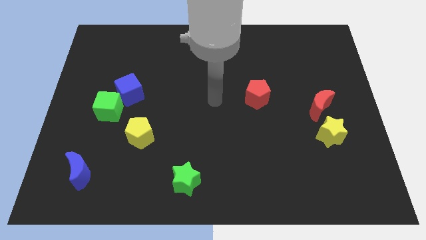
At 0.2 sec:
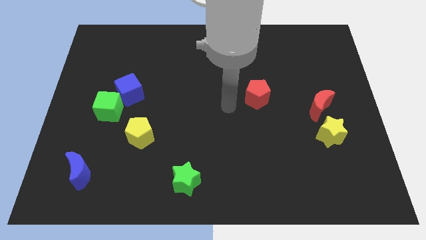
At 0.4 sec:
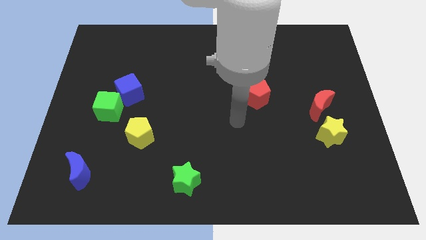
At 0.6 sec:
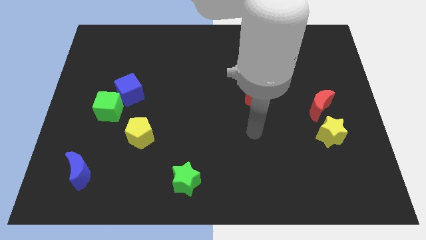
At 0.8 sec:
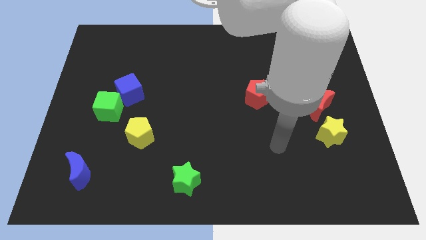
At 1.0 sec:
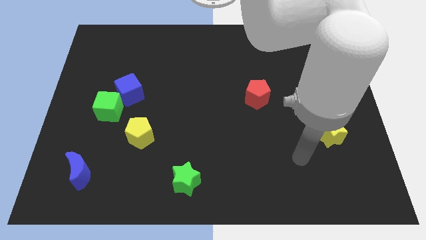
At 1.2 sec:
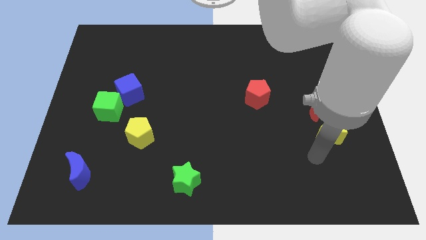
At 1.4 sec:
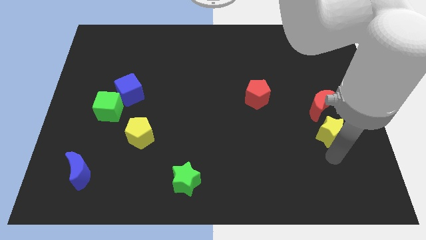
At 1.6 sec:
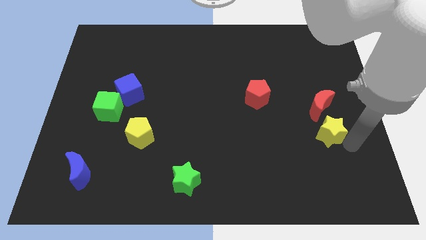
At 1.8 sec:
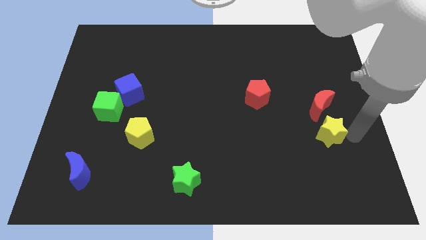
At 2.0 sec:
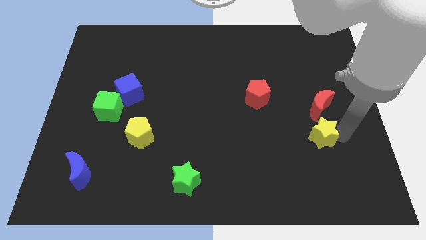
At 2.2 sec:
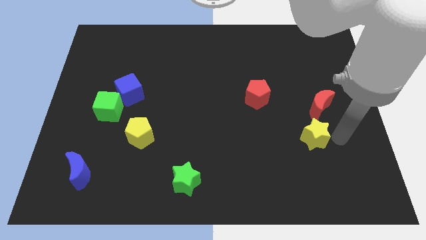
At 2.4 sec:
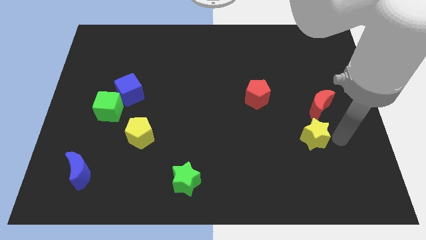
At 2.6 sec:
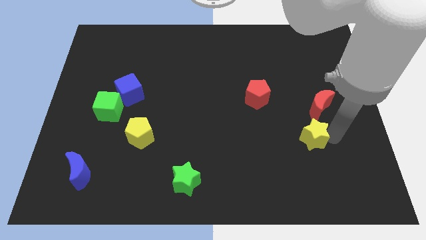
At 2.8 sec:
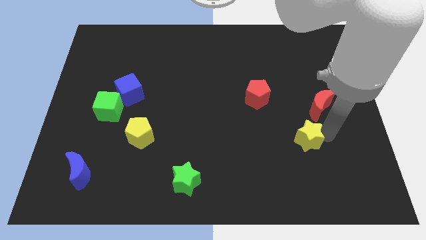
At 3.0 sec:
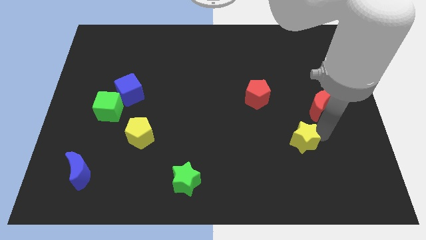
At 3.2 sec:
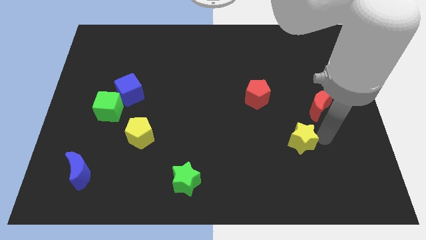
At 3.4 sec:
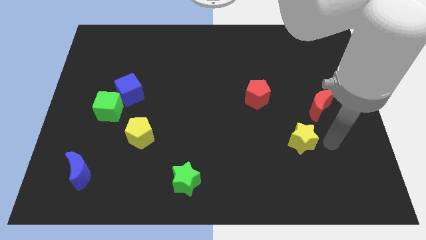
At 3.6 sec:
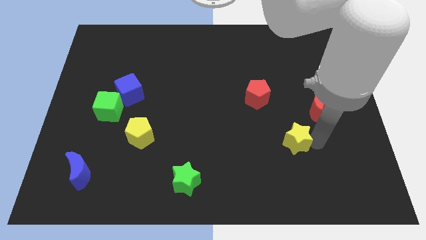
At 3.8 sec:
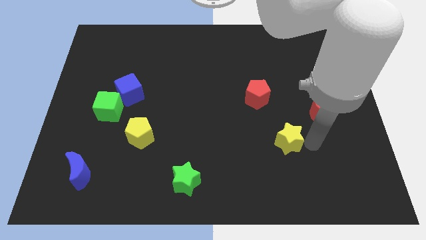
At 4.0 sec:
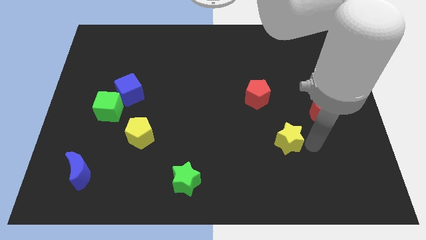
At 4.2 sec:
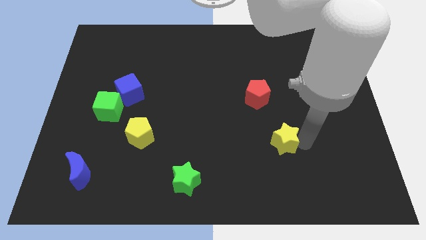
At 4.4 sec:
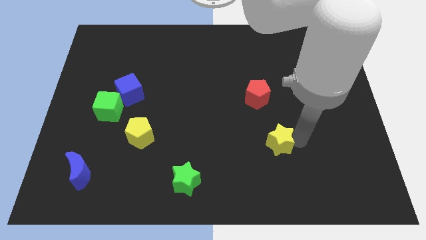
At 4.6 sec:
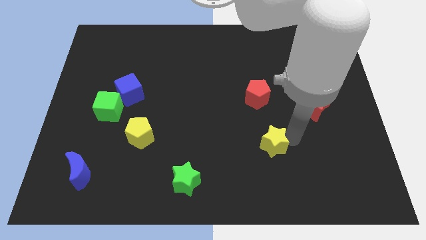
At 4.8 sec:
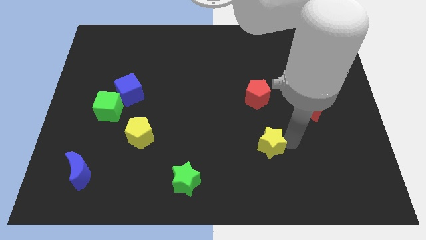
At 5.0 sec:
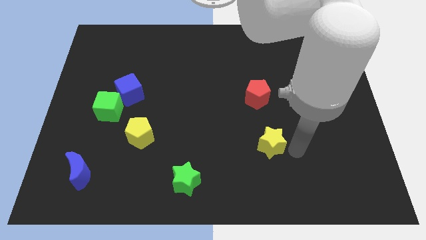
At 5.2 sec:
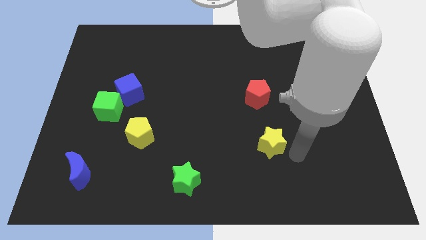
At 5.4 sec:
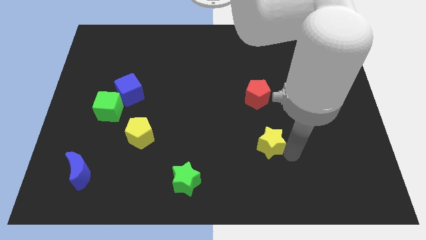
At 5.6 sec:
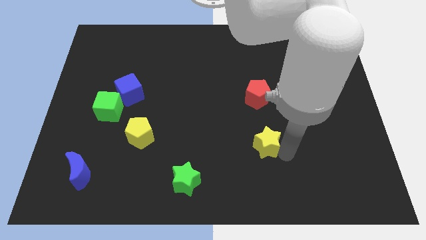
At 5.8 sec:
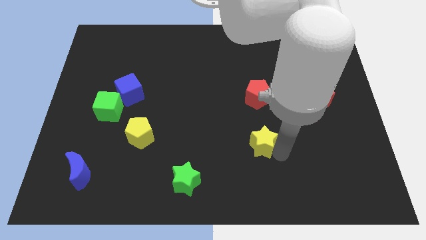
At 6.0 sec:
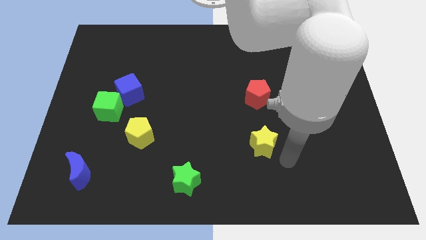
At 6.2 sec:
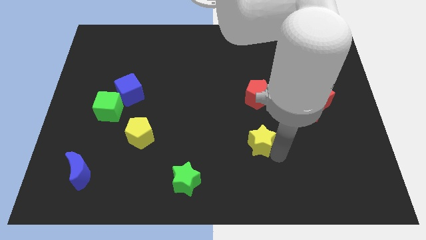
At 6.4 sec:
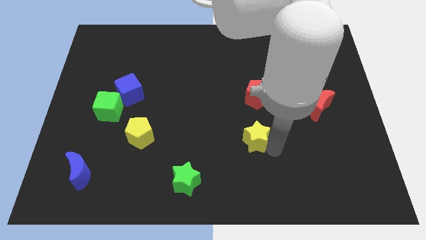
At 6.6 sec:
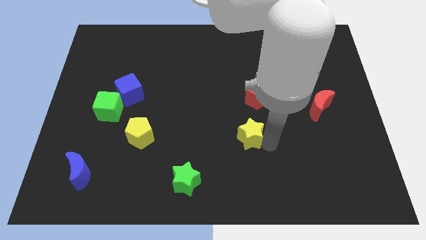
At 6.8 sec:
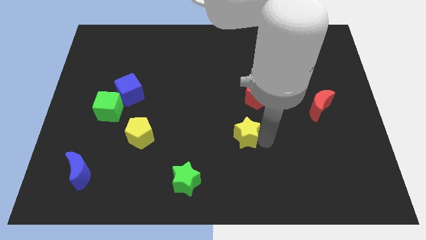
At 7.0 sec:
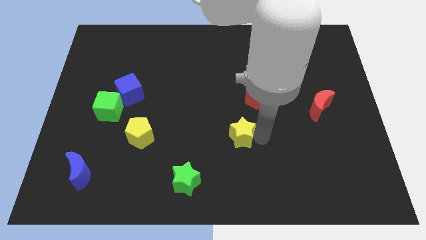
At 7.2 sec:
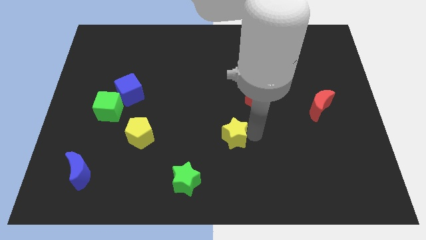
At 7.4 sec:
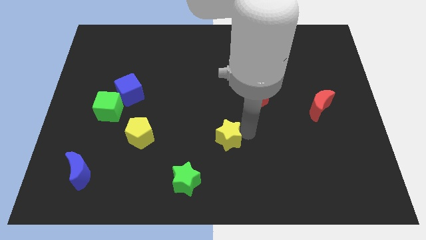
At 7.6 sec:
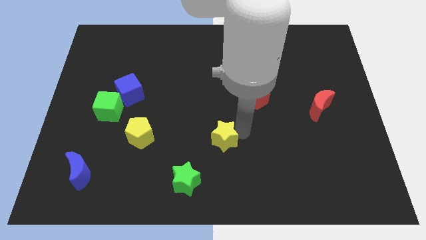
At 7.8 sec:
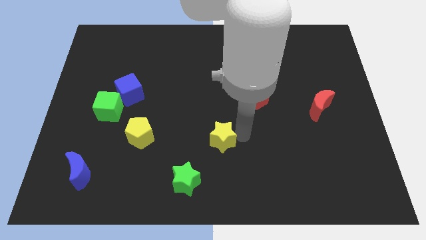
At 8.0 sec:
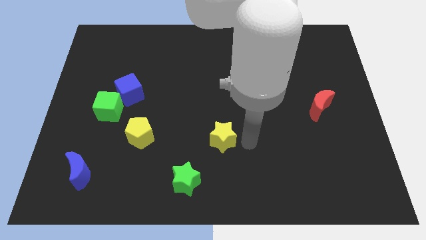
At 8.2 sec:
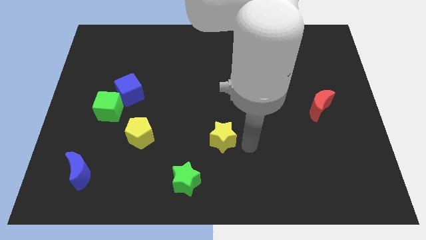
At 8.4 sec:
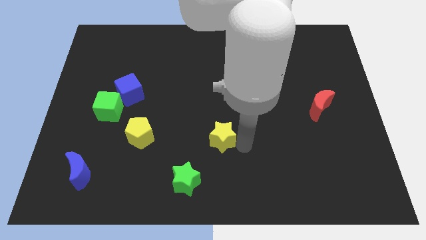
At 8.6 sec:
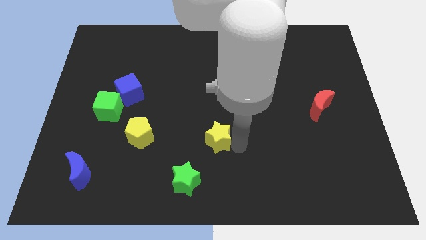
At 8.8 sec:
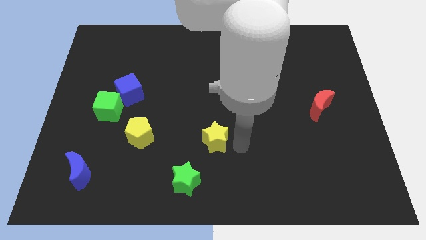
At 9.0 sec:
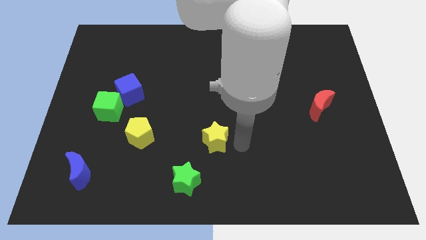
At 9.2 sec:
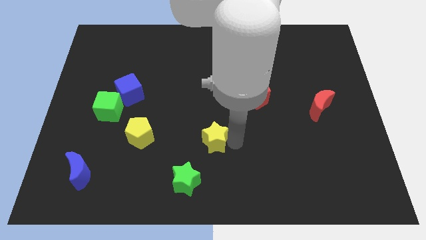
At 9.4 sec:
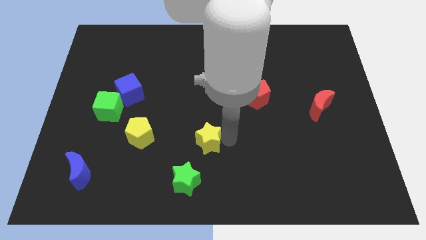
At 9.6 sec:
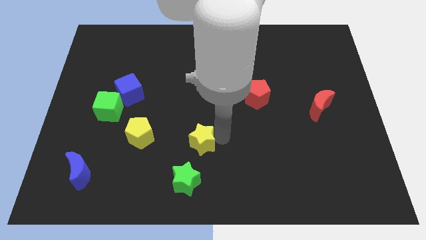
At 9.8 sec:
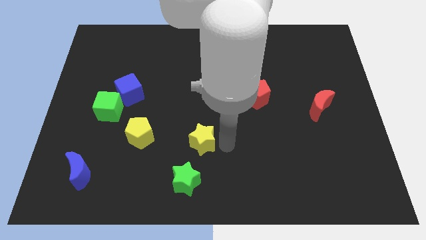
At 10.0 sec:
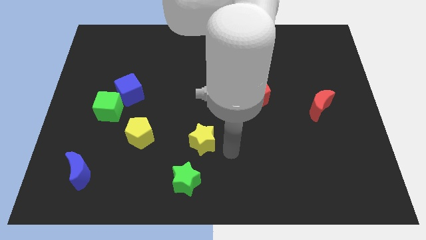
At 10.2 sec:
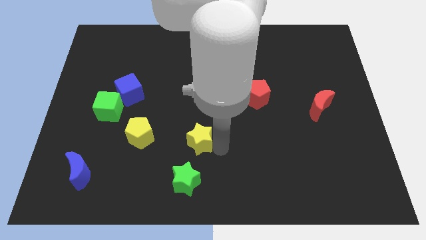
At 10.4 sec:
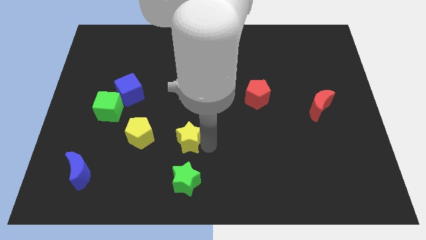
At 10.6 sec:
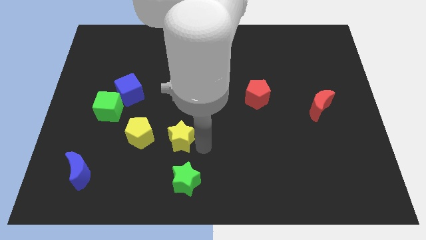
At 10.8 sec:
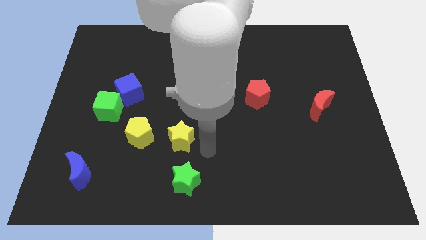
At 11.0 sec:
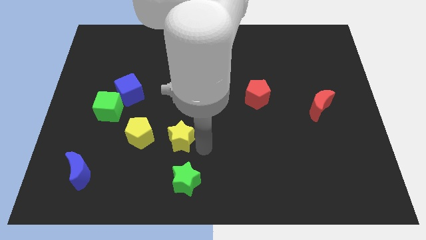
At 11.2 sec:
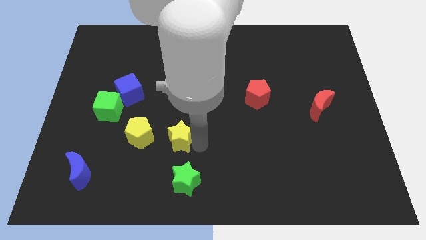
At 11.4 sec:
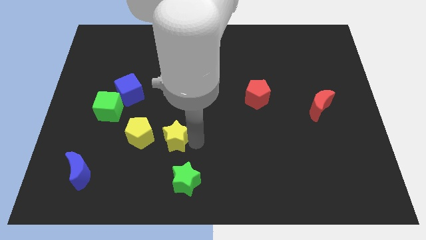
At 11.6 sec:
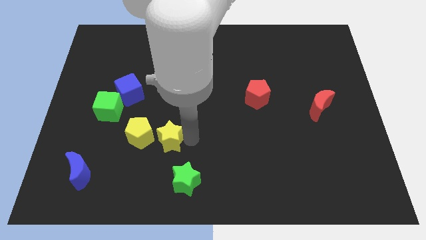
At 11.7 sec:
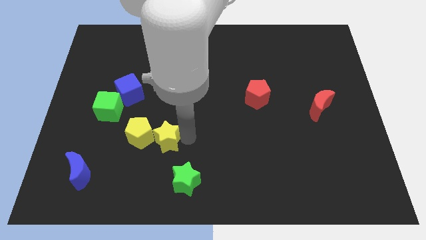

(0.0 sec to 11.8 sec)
push the yellow star towards the yellow pentagon

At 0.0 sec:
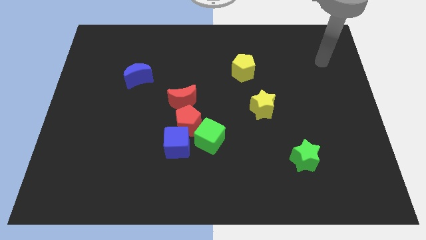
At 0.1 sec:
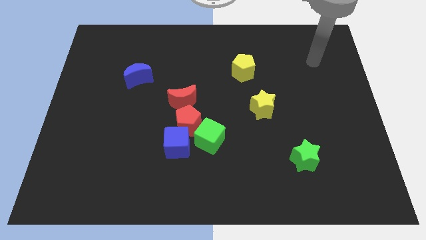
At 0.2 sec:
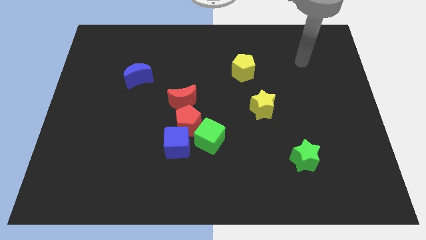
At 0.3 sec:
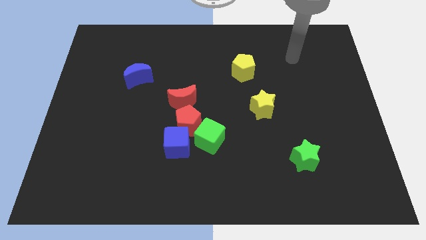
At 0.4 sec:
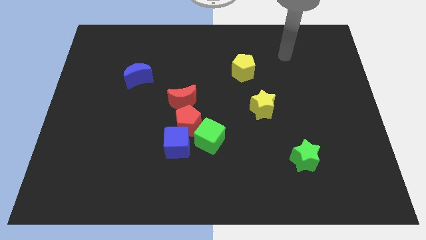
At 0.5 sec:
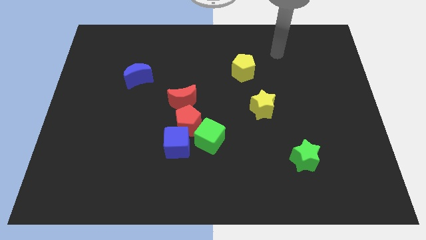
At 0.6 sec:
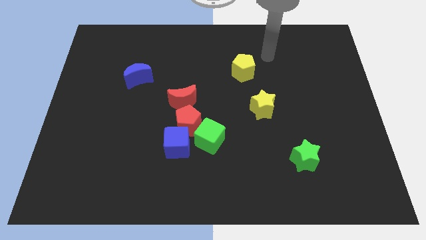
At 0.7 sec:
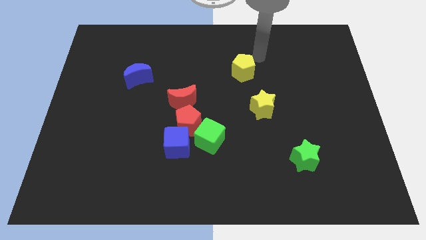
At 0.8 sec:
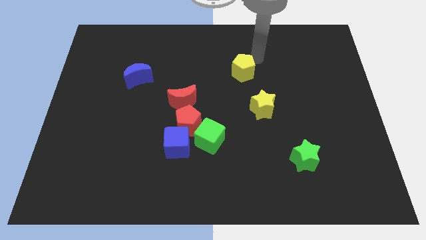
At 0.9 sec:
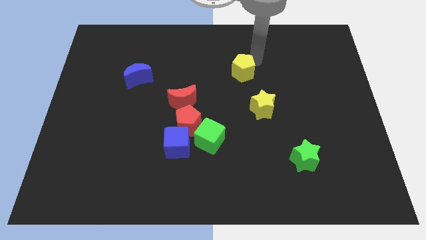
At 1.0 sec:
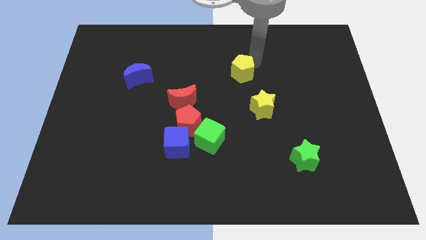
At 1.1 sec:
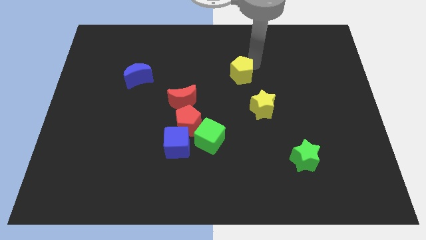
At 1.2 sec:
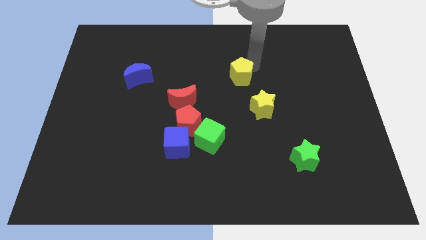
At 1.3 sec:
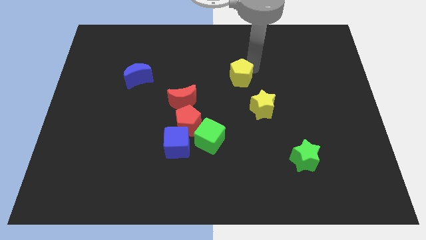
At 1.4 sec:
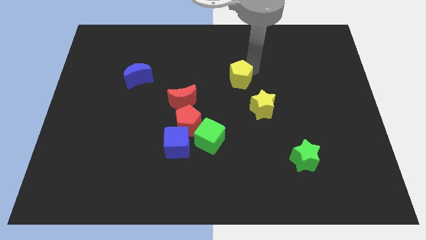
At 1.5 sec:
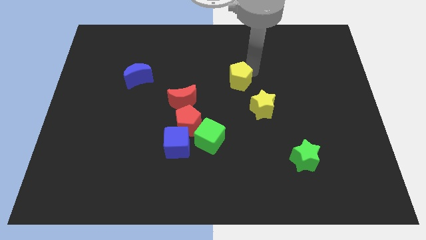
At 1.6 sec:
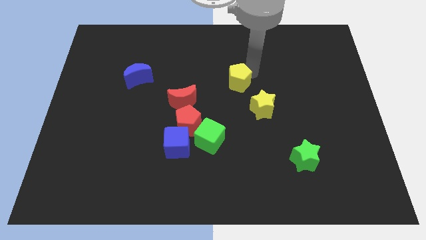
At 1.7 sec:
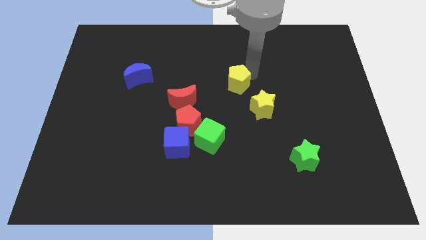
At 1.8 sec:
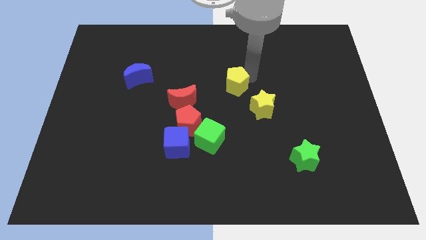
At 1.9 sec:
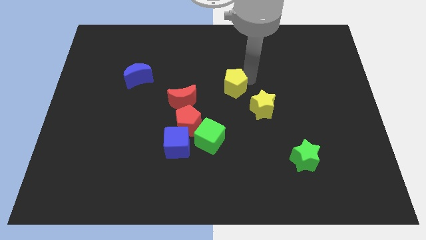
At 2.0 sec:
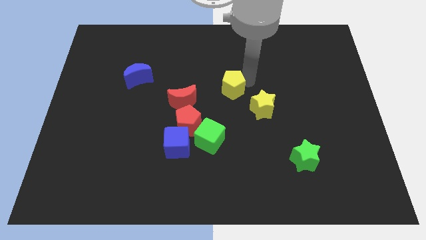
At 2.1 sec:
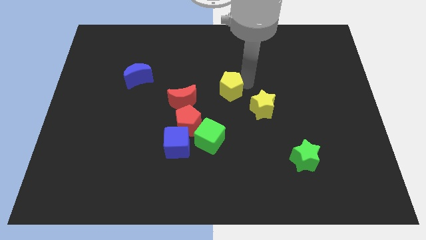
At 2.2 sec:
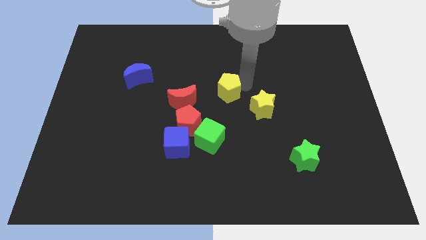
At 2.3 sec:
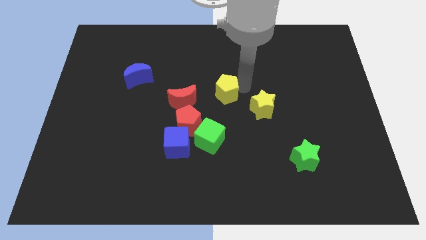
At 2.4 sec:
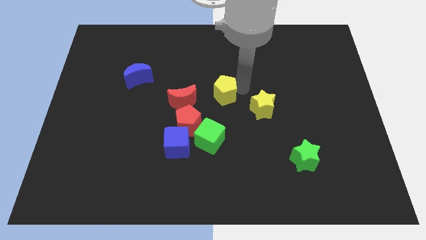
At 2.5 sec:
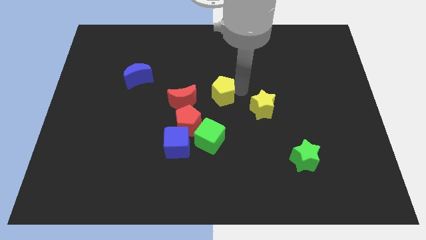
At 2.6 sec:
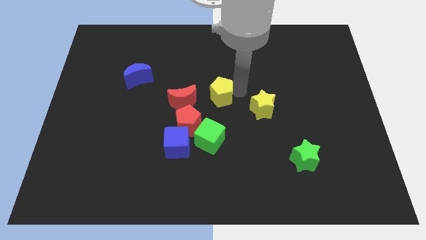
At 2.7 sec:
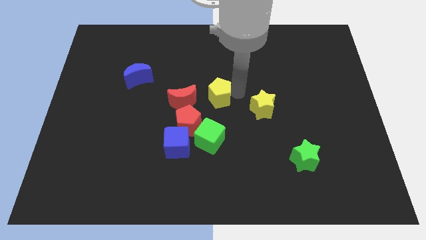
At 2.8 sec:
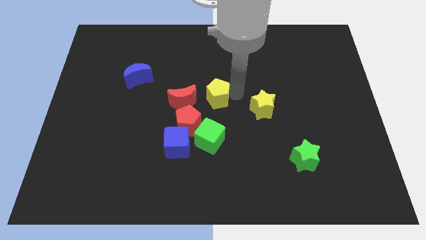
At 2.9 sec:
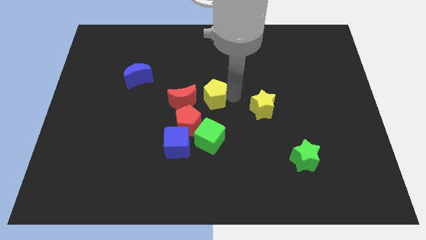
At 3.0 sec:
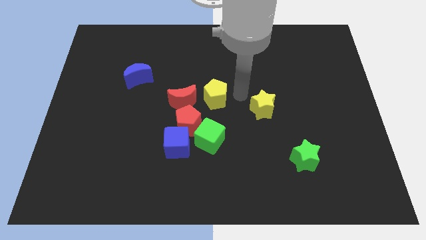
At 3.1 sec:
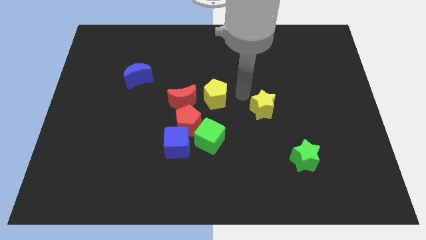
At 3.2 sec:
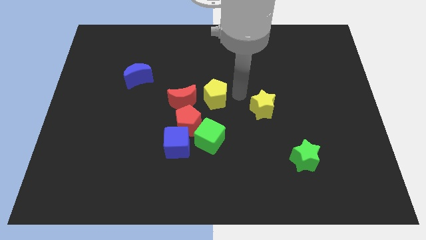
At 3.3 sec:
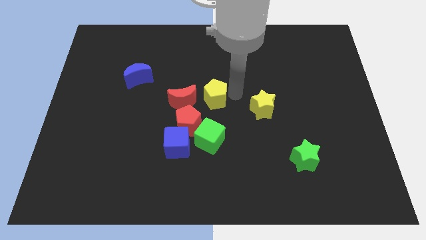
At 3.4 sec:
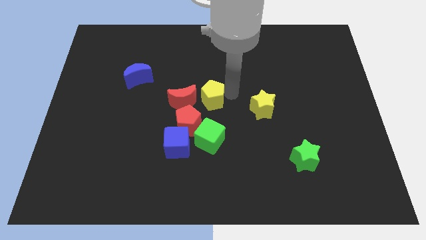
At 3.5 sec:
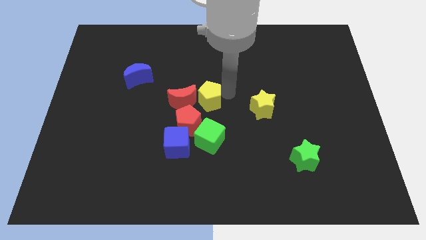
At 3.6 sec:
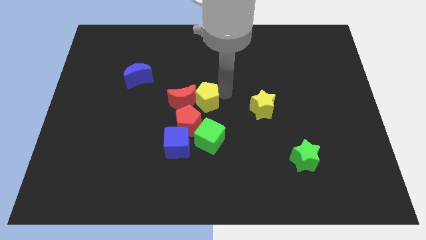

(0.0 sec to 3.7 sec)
put the yellow pentagon to the red moon
